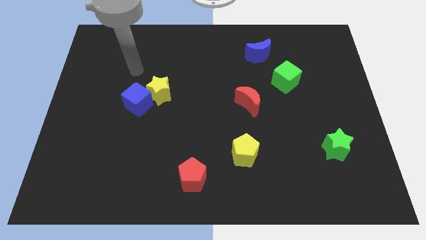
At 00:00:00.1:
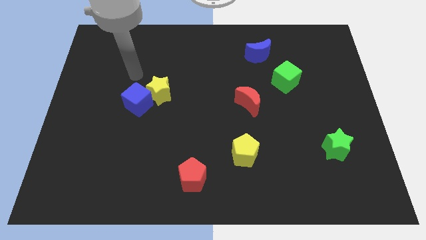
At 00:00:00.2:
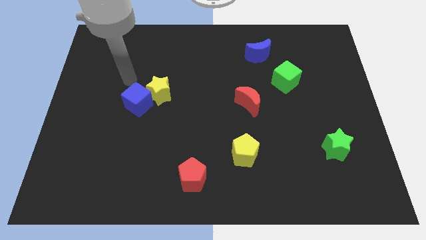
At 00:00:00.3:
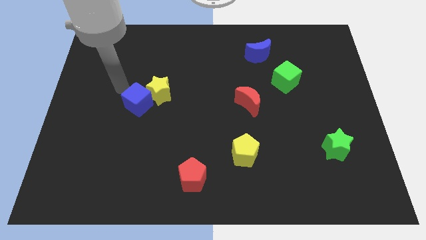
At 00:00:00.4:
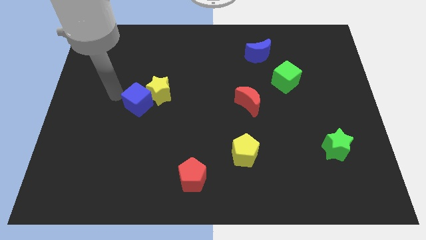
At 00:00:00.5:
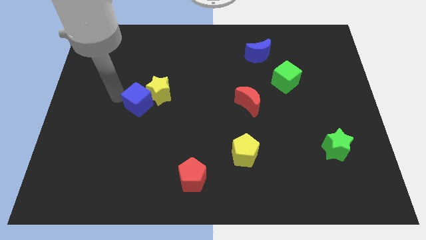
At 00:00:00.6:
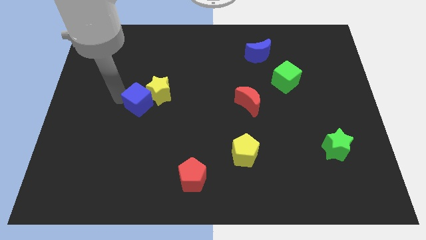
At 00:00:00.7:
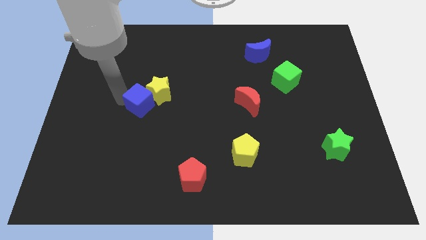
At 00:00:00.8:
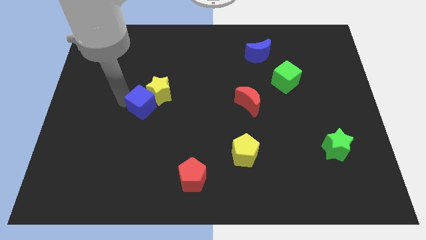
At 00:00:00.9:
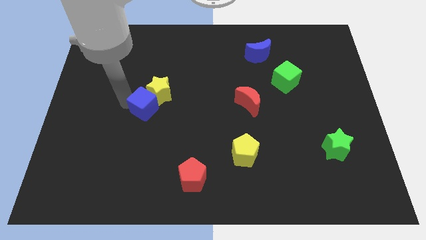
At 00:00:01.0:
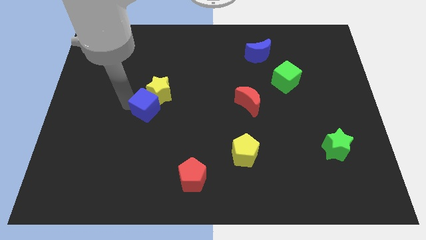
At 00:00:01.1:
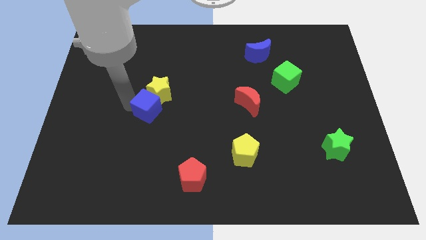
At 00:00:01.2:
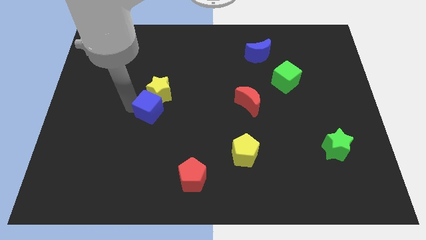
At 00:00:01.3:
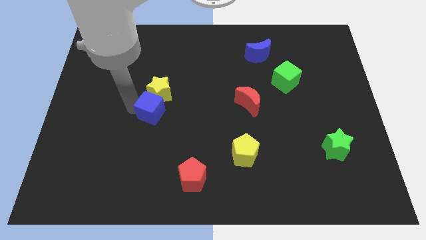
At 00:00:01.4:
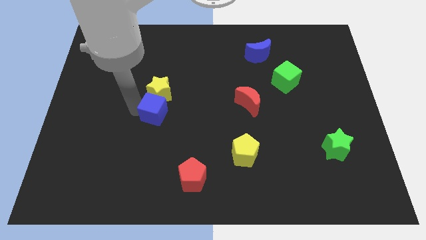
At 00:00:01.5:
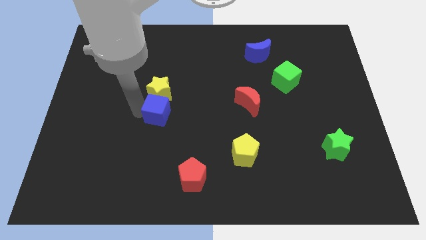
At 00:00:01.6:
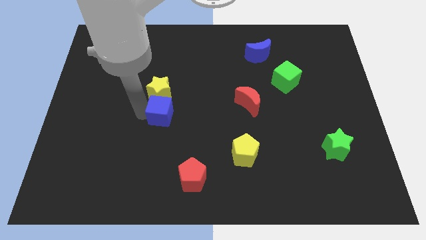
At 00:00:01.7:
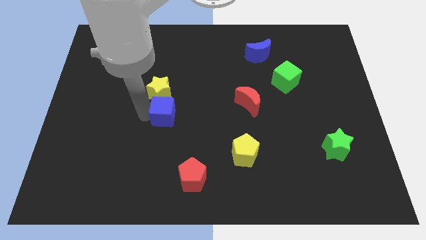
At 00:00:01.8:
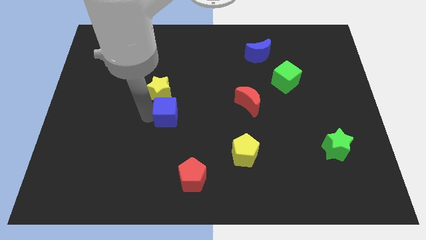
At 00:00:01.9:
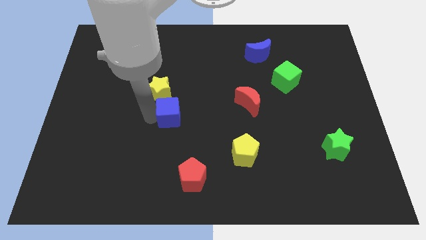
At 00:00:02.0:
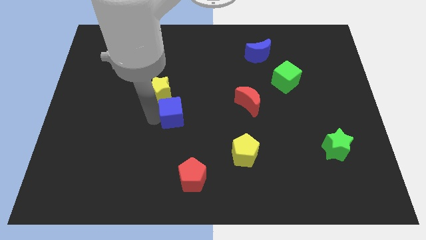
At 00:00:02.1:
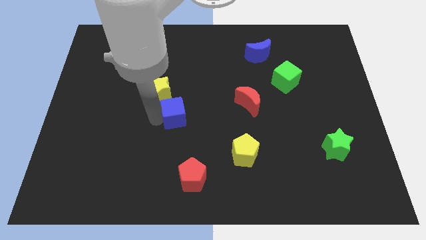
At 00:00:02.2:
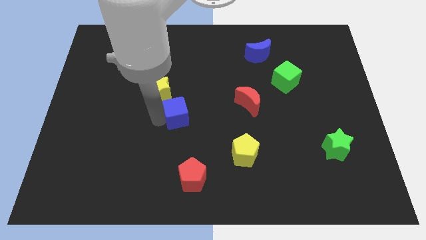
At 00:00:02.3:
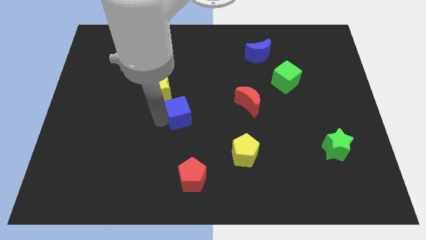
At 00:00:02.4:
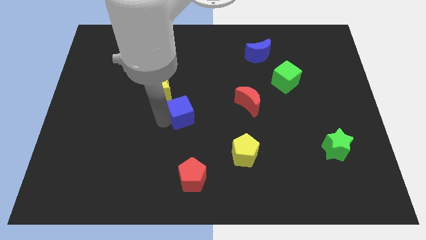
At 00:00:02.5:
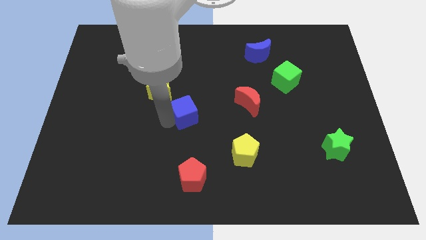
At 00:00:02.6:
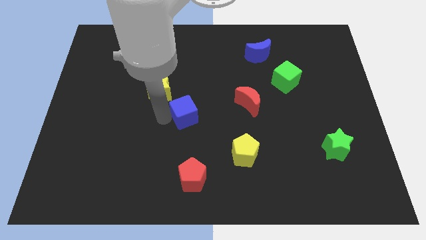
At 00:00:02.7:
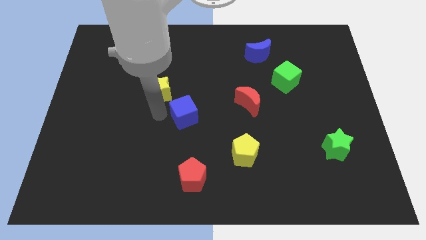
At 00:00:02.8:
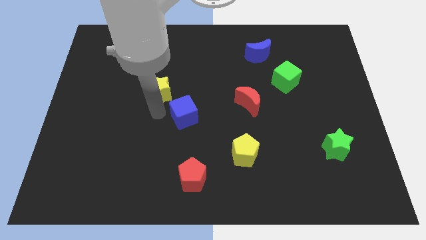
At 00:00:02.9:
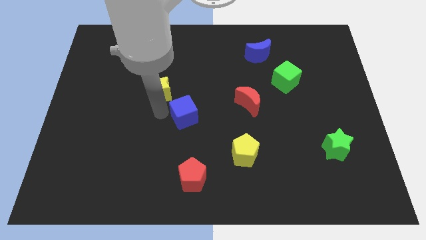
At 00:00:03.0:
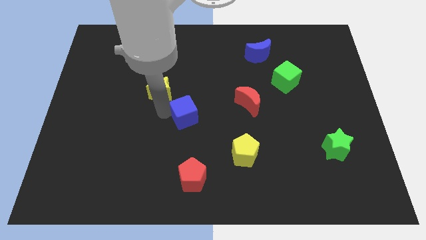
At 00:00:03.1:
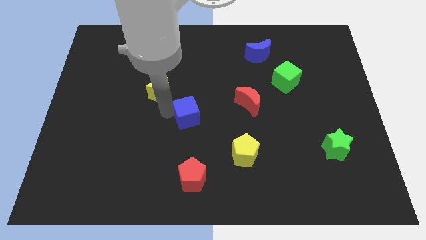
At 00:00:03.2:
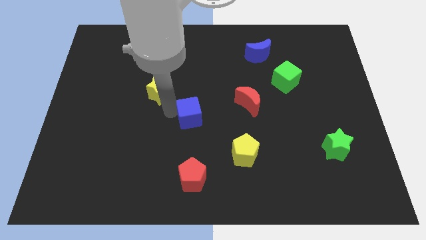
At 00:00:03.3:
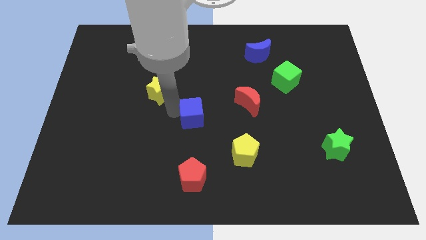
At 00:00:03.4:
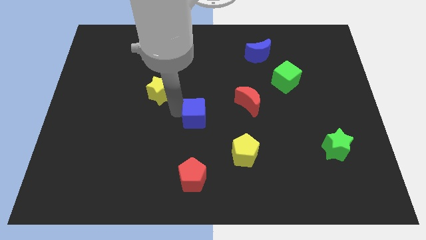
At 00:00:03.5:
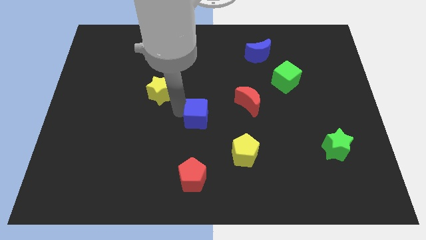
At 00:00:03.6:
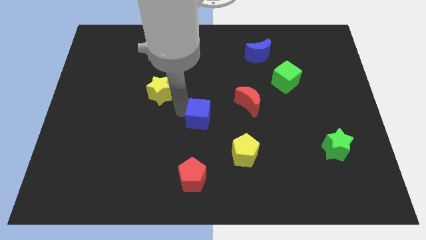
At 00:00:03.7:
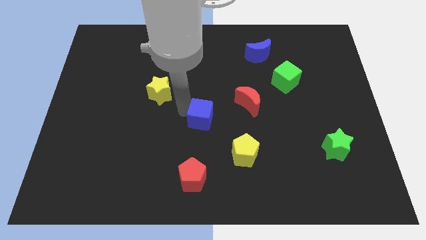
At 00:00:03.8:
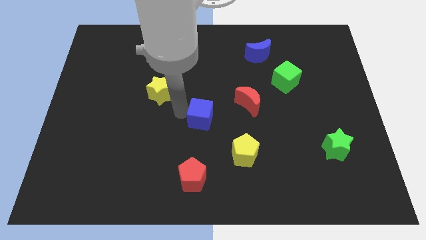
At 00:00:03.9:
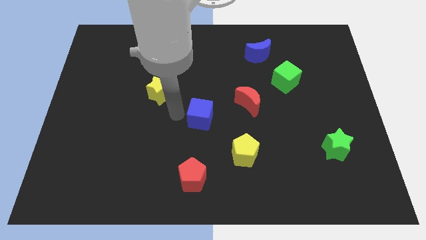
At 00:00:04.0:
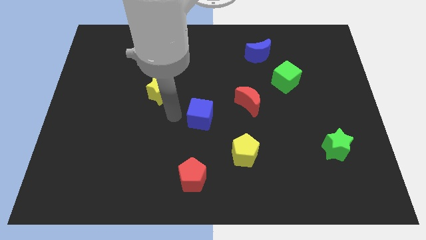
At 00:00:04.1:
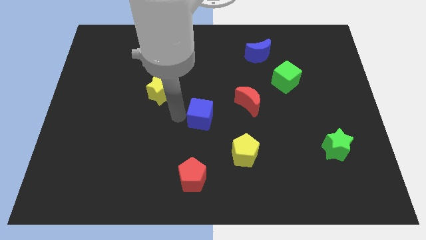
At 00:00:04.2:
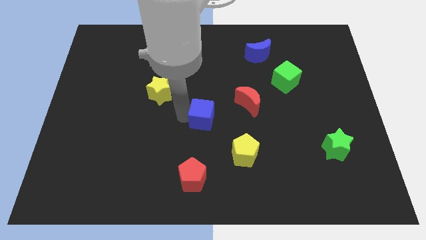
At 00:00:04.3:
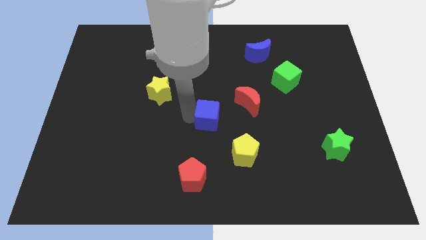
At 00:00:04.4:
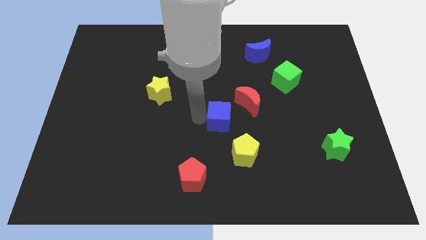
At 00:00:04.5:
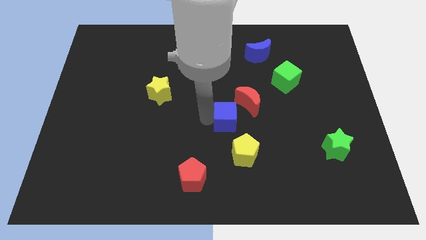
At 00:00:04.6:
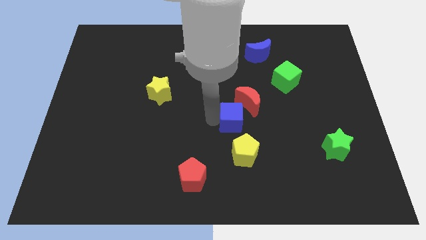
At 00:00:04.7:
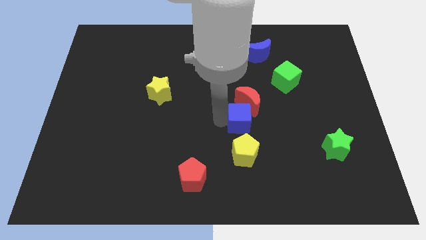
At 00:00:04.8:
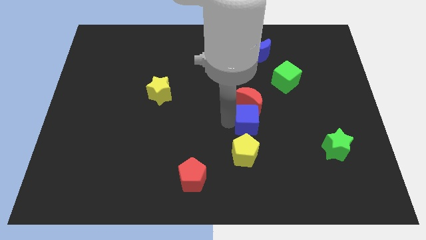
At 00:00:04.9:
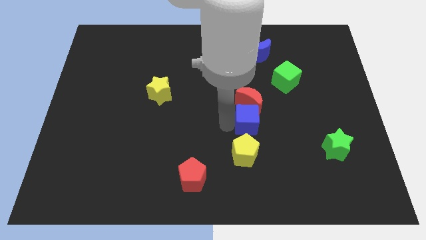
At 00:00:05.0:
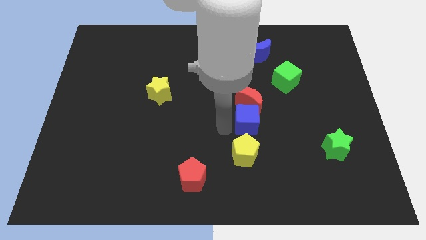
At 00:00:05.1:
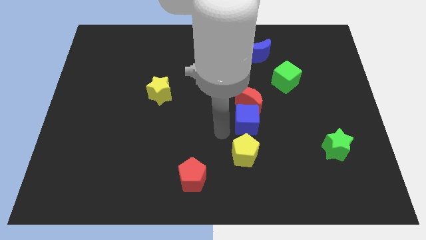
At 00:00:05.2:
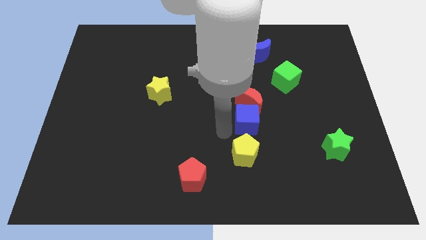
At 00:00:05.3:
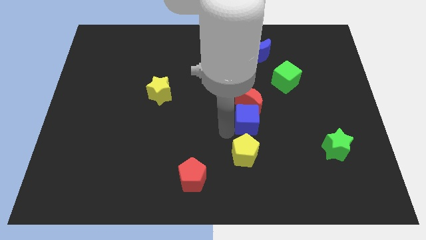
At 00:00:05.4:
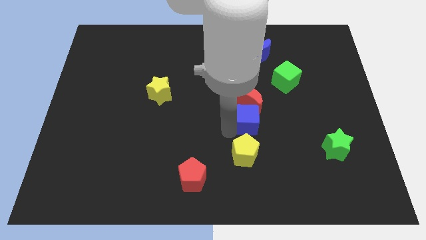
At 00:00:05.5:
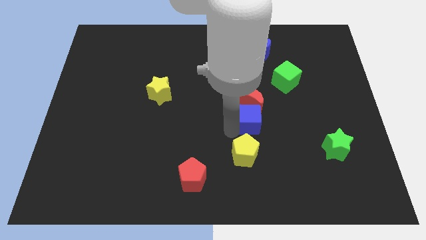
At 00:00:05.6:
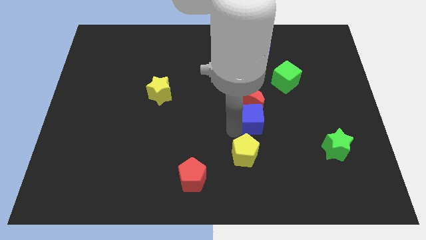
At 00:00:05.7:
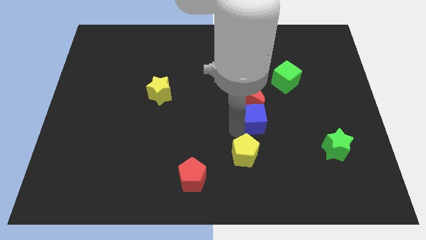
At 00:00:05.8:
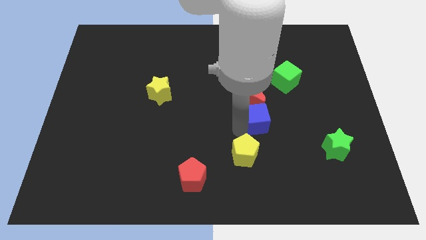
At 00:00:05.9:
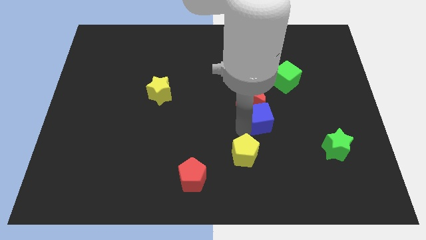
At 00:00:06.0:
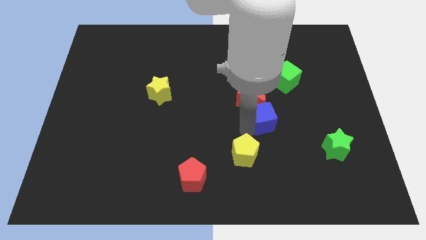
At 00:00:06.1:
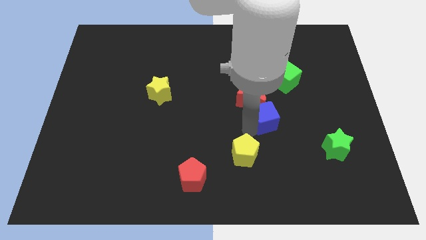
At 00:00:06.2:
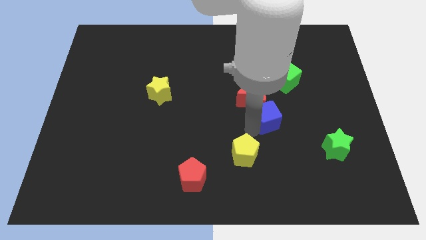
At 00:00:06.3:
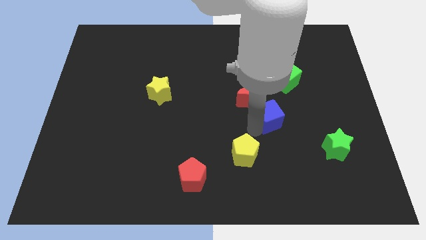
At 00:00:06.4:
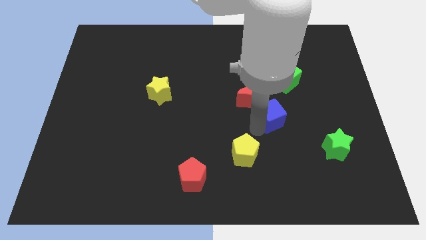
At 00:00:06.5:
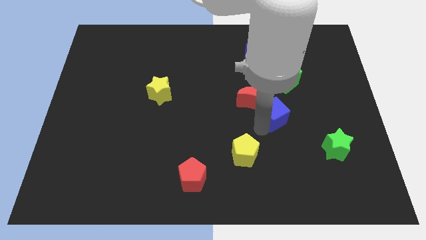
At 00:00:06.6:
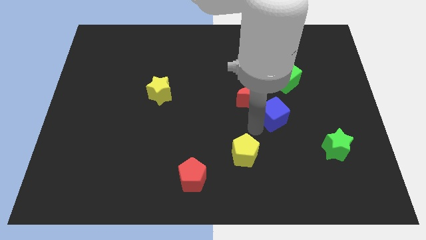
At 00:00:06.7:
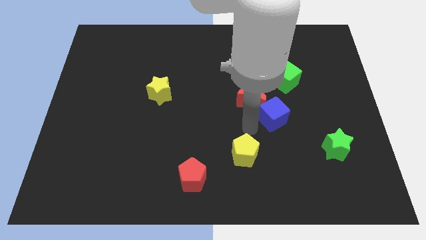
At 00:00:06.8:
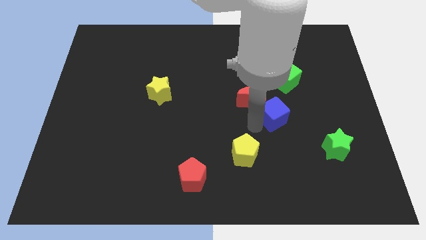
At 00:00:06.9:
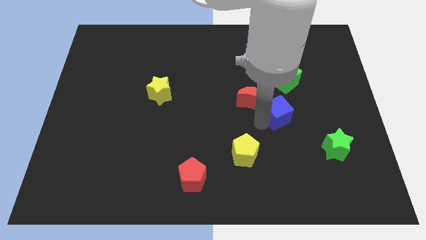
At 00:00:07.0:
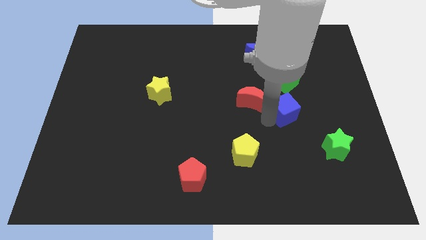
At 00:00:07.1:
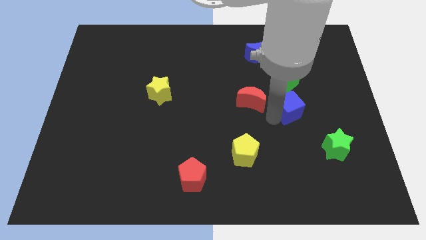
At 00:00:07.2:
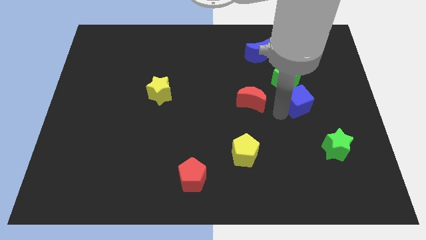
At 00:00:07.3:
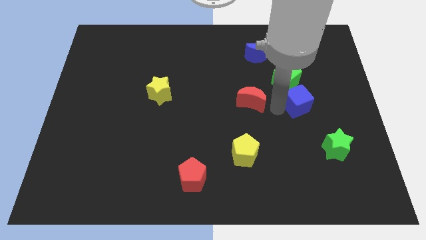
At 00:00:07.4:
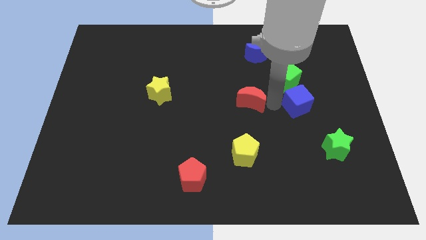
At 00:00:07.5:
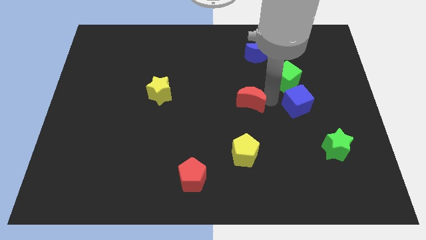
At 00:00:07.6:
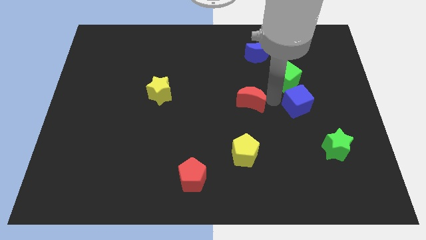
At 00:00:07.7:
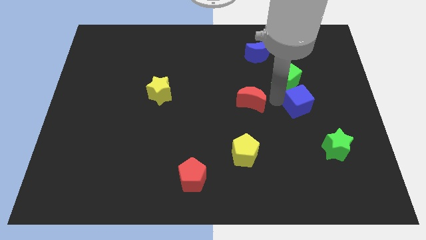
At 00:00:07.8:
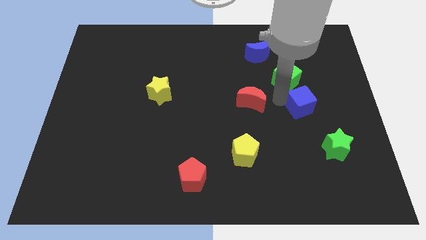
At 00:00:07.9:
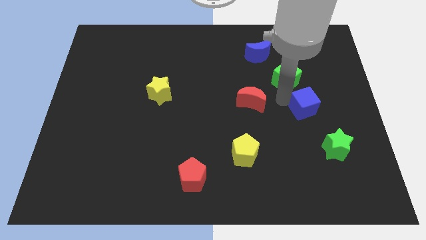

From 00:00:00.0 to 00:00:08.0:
put the blue cube to the top side of the green star

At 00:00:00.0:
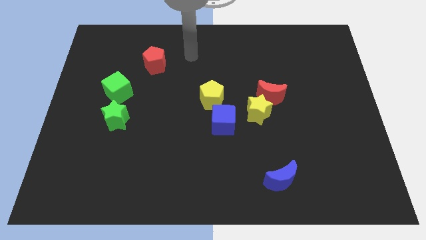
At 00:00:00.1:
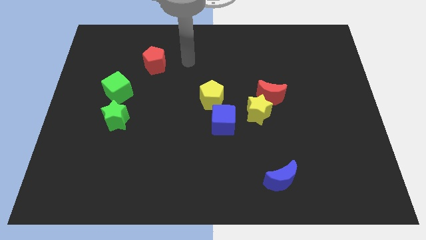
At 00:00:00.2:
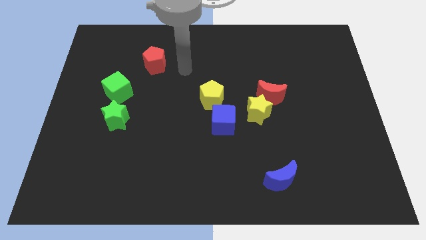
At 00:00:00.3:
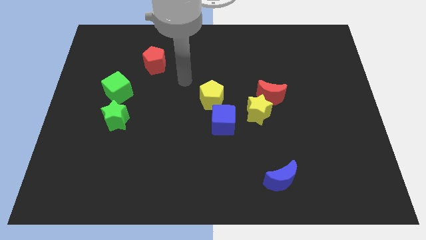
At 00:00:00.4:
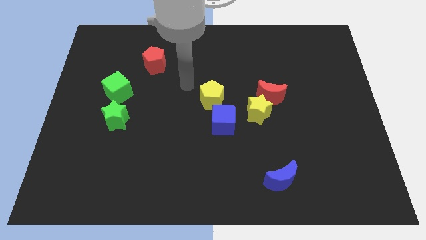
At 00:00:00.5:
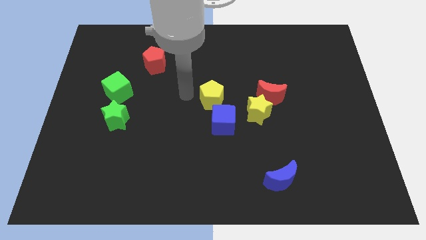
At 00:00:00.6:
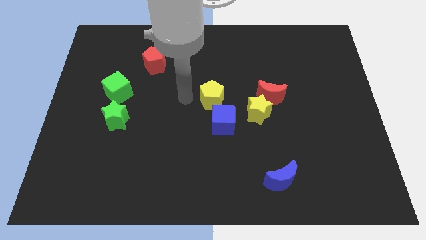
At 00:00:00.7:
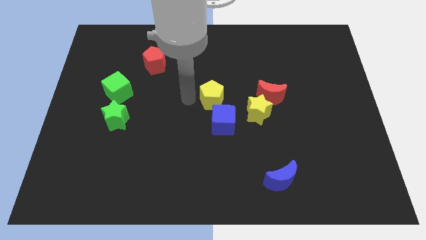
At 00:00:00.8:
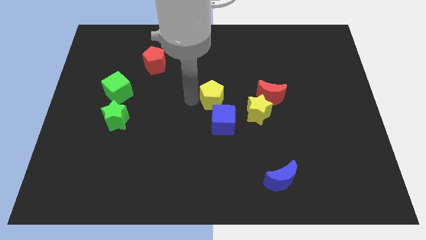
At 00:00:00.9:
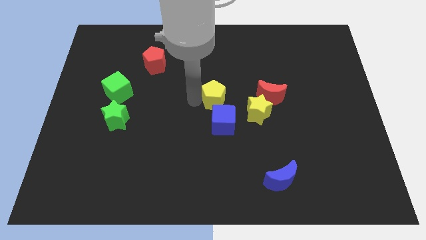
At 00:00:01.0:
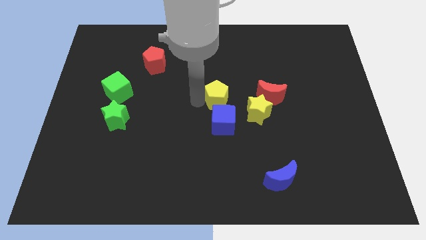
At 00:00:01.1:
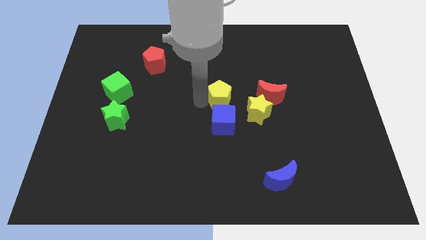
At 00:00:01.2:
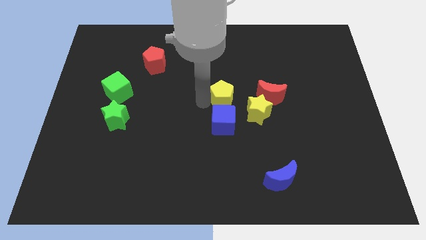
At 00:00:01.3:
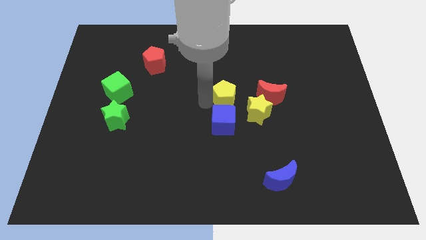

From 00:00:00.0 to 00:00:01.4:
put the yellow pentagon diagonally up and to the right of the blue cube
